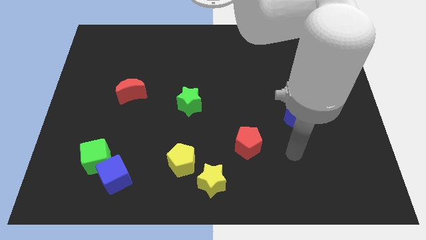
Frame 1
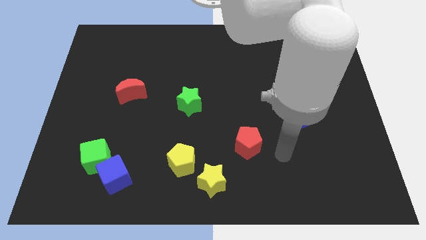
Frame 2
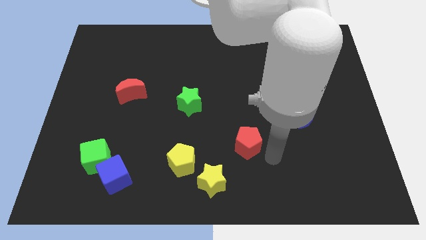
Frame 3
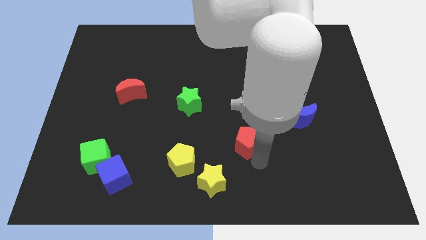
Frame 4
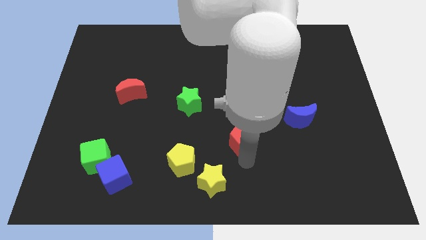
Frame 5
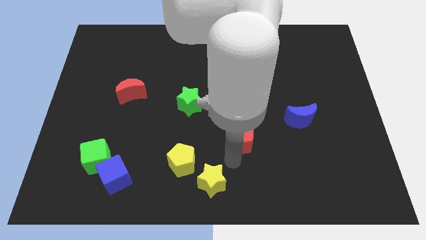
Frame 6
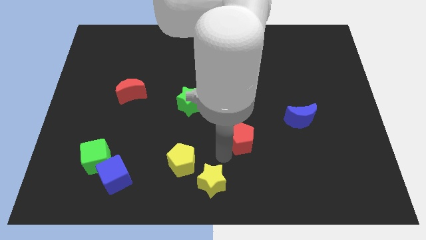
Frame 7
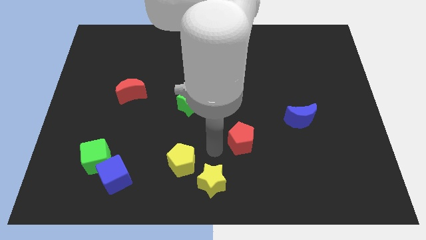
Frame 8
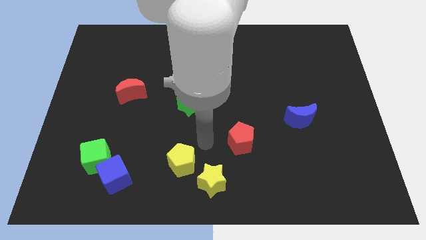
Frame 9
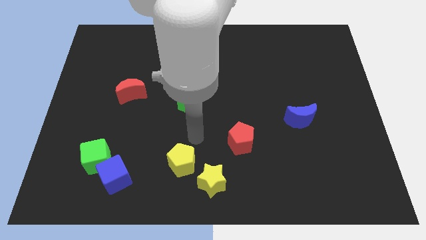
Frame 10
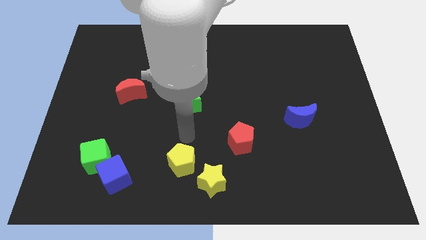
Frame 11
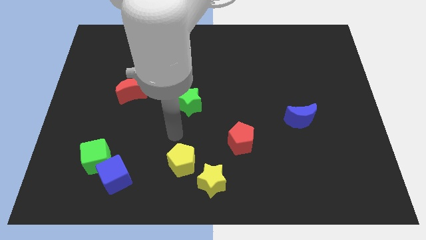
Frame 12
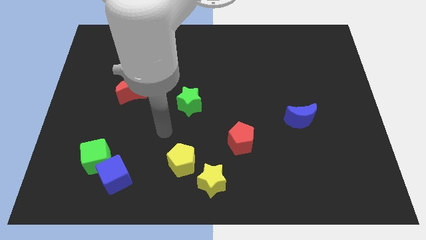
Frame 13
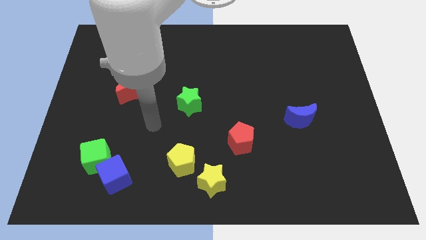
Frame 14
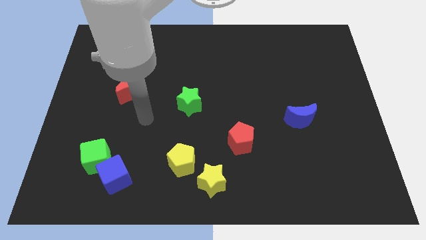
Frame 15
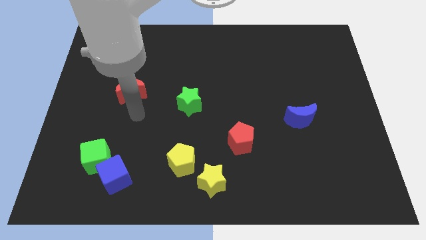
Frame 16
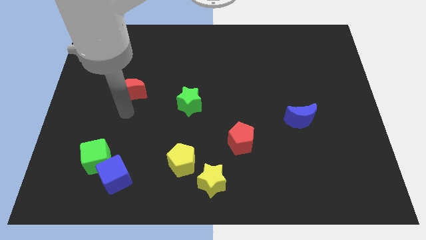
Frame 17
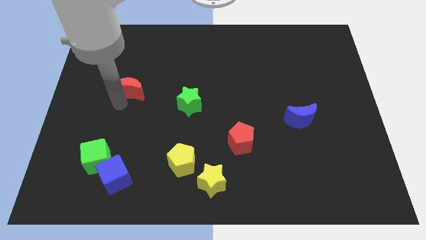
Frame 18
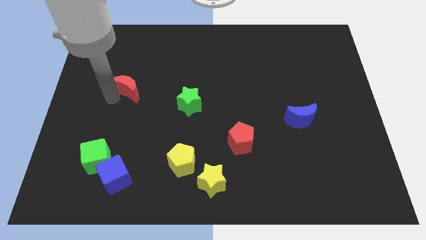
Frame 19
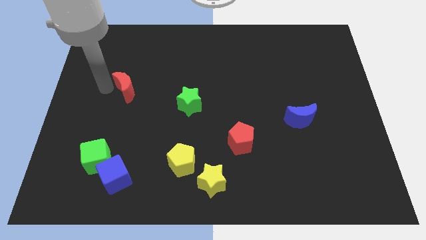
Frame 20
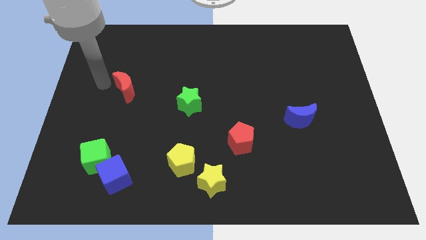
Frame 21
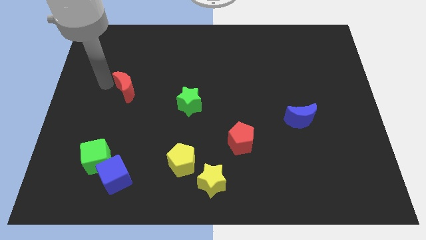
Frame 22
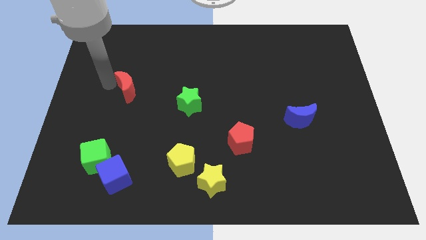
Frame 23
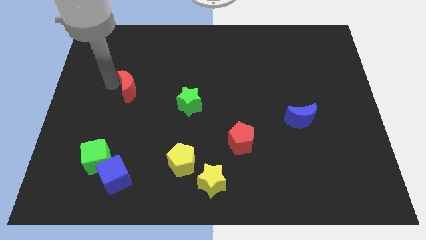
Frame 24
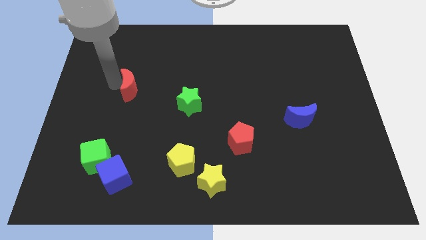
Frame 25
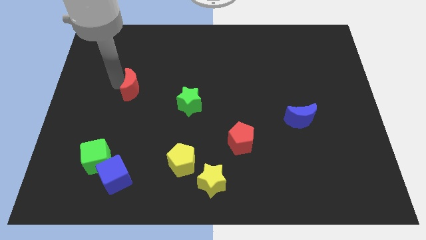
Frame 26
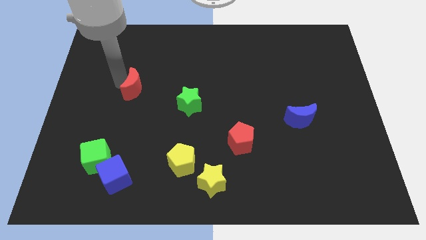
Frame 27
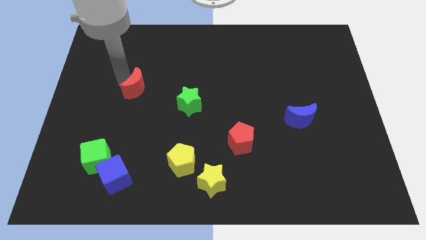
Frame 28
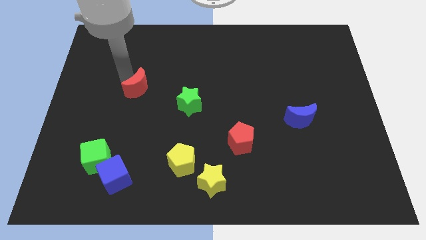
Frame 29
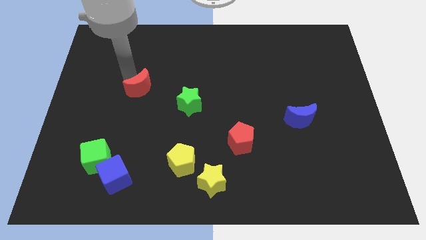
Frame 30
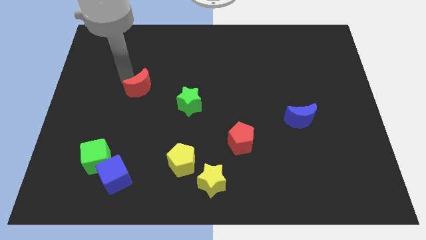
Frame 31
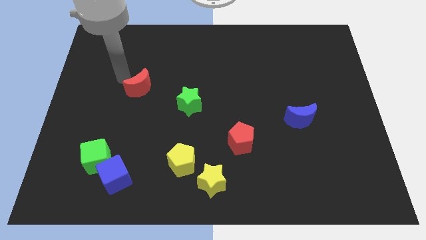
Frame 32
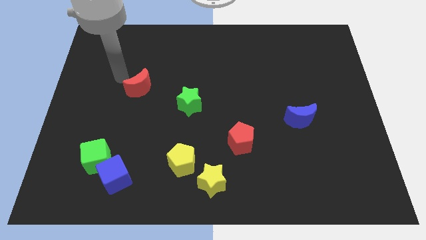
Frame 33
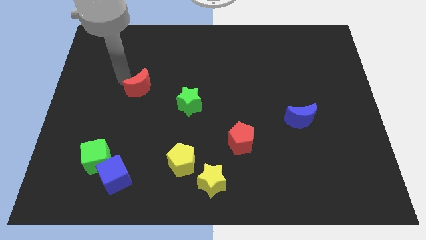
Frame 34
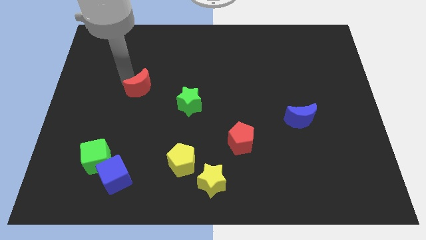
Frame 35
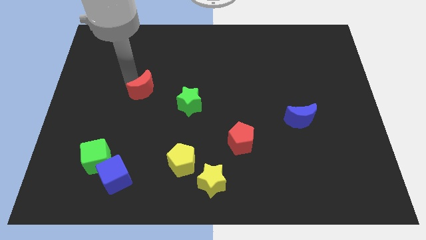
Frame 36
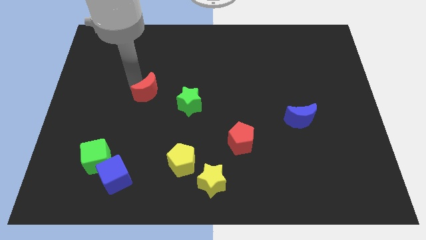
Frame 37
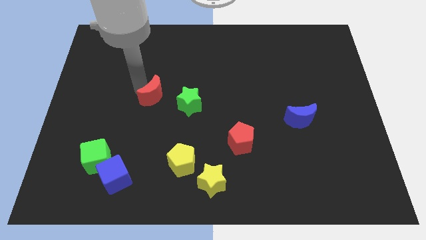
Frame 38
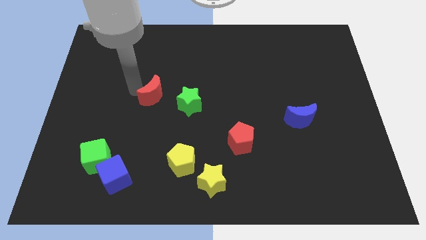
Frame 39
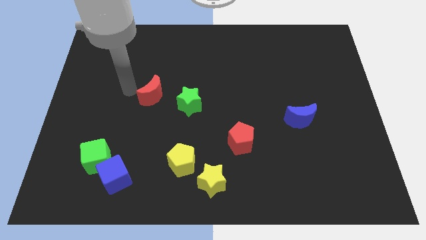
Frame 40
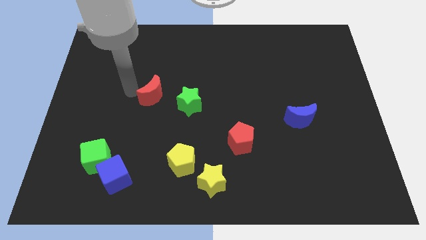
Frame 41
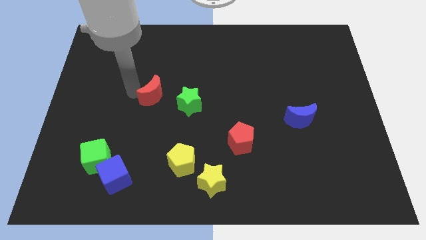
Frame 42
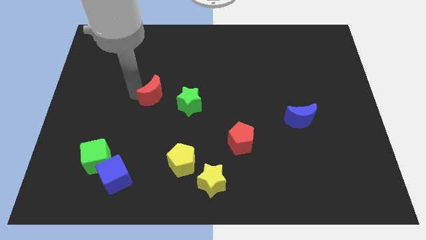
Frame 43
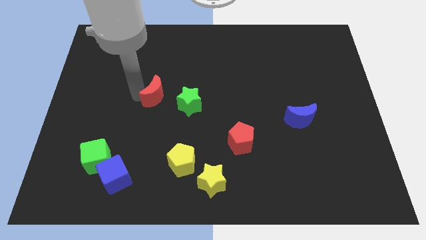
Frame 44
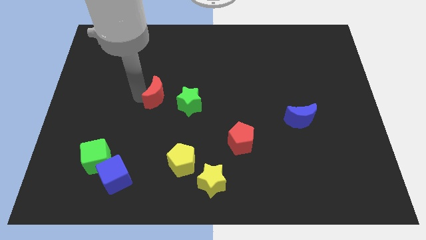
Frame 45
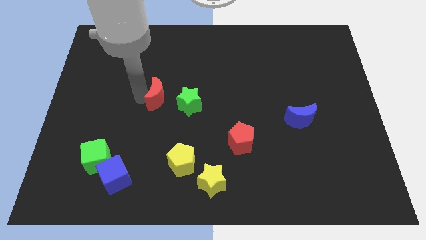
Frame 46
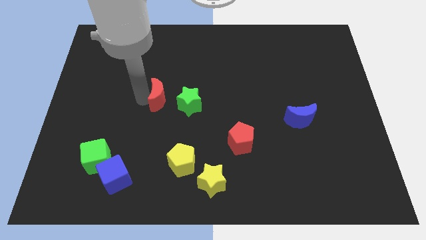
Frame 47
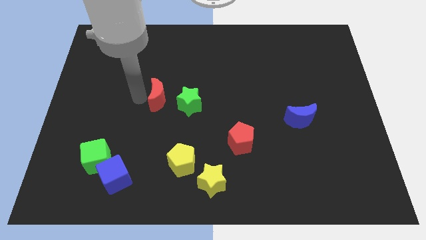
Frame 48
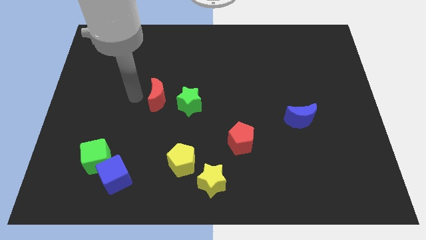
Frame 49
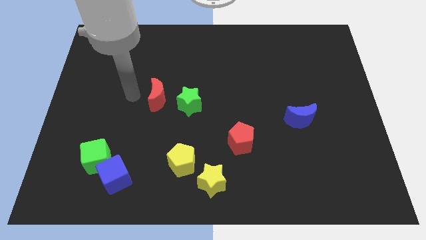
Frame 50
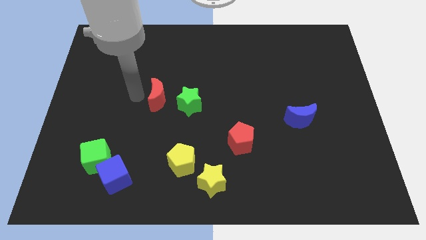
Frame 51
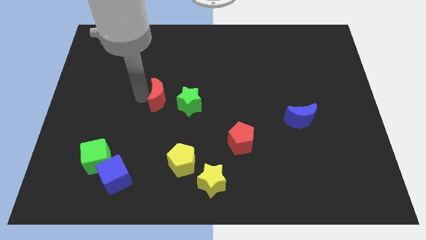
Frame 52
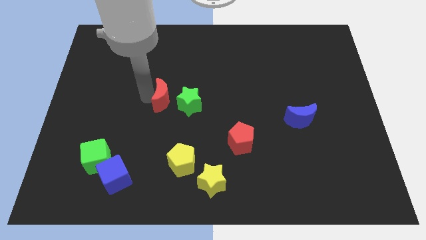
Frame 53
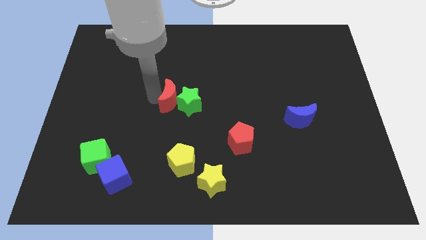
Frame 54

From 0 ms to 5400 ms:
move the red moon towards the green star

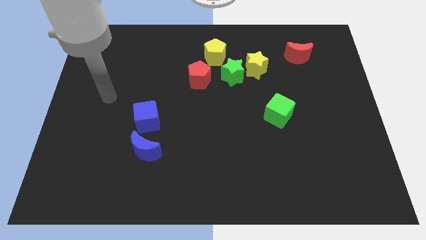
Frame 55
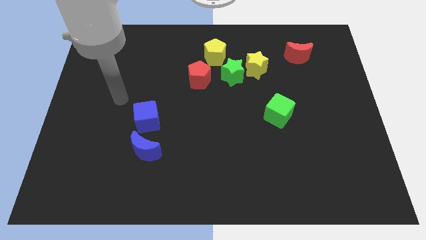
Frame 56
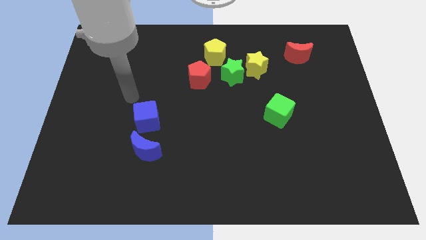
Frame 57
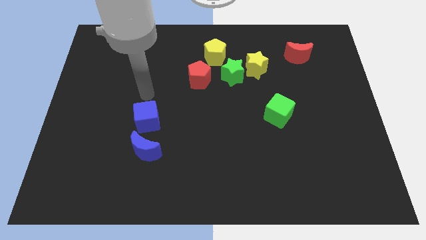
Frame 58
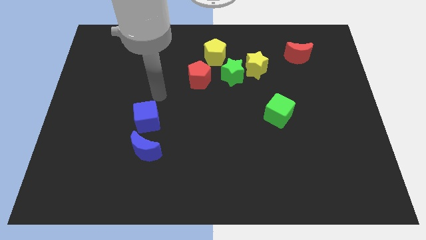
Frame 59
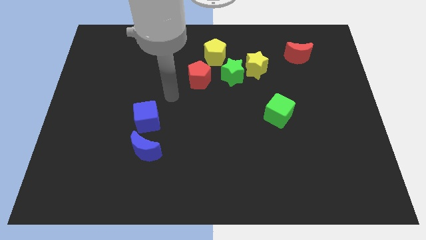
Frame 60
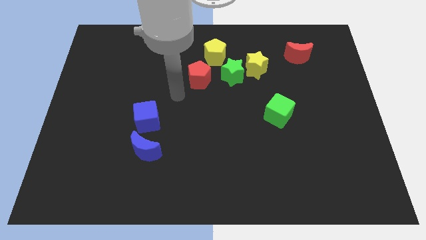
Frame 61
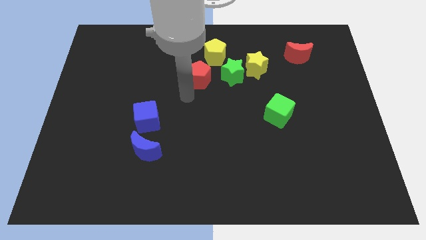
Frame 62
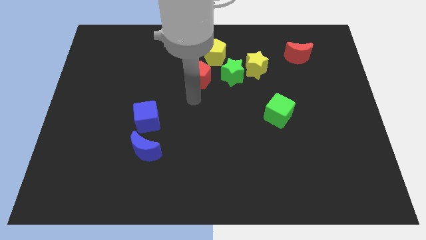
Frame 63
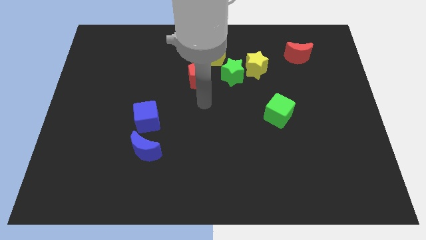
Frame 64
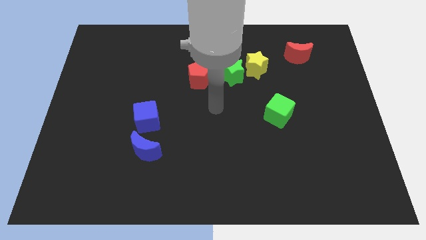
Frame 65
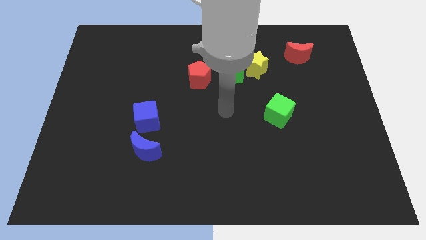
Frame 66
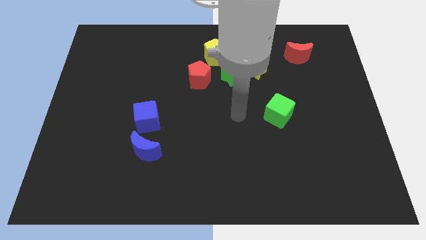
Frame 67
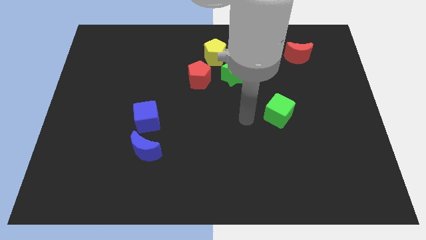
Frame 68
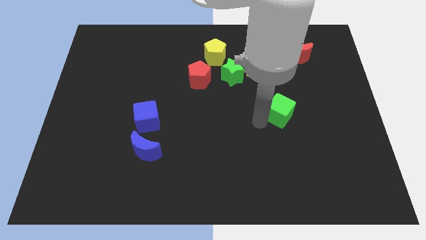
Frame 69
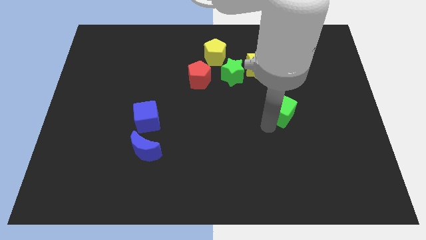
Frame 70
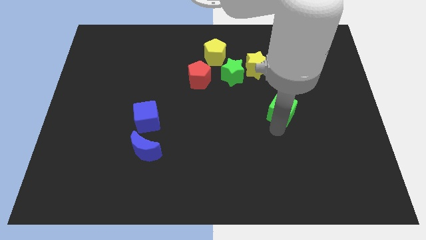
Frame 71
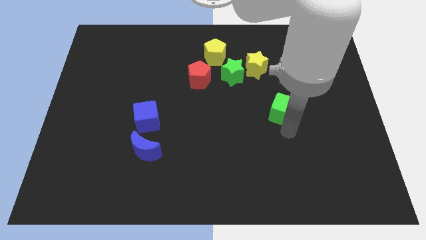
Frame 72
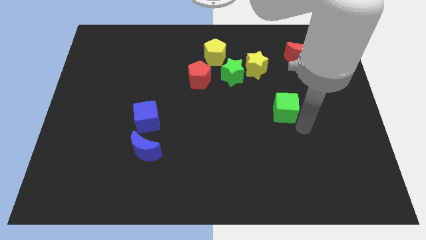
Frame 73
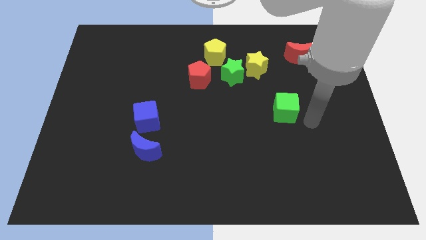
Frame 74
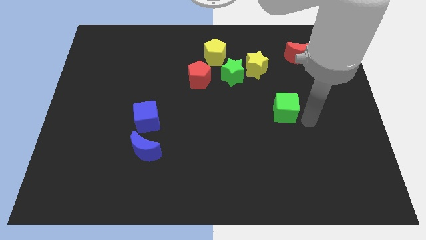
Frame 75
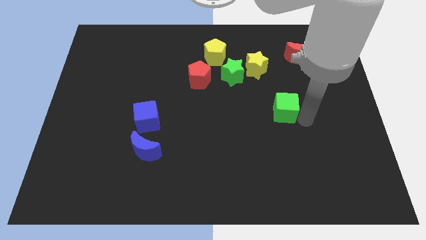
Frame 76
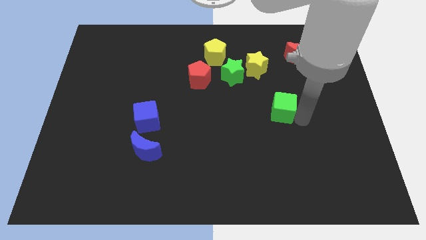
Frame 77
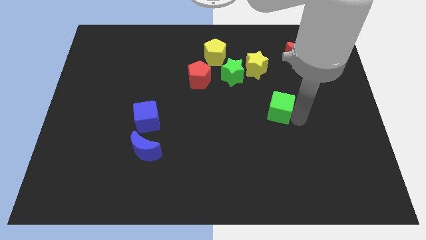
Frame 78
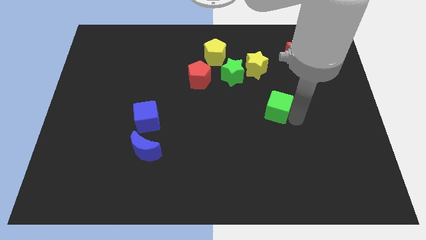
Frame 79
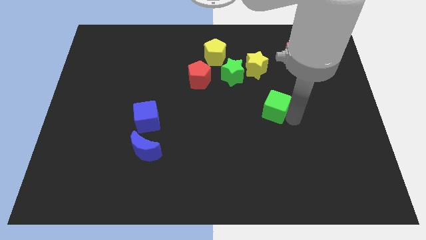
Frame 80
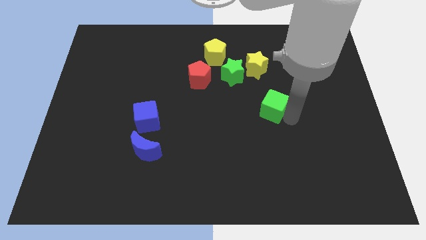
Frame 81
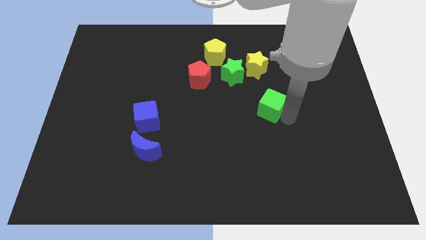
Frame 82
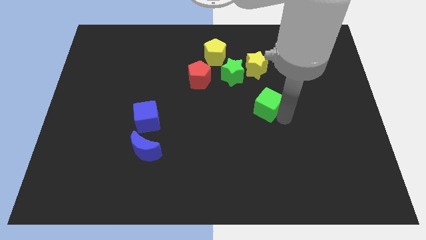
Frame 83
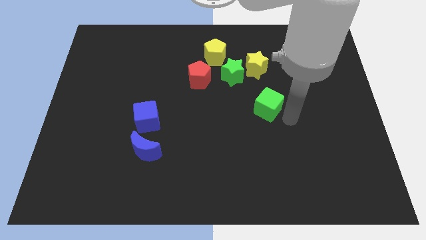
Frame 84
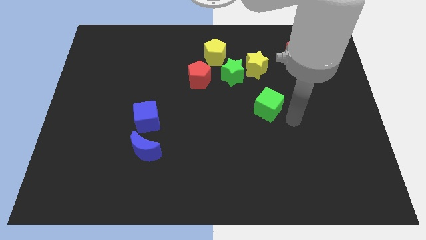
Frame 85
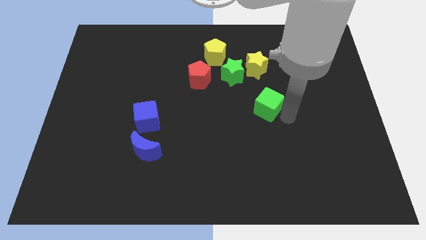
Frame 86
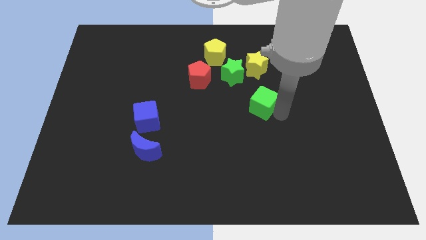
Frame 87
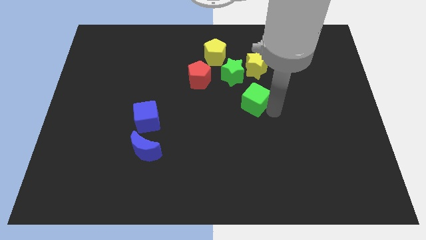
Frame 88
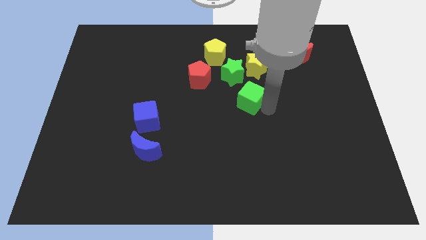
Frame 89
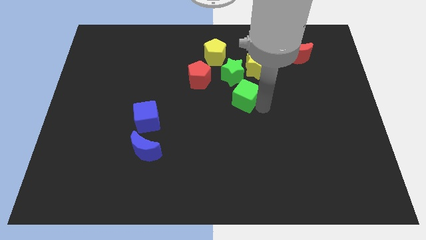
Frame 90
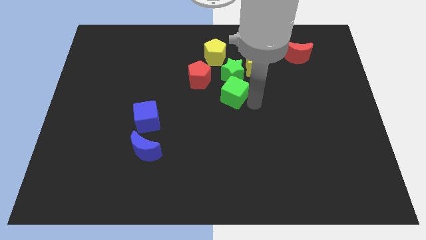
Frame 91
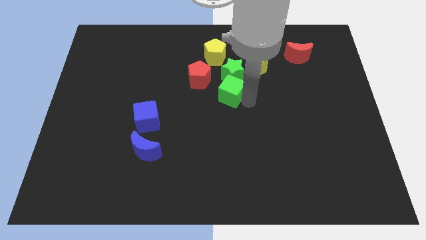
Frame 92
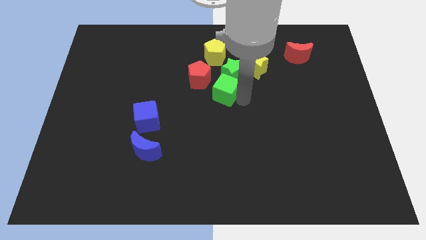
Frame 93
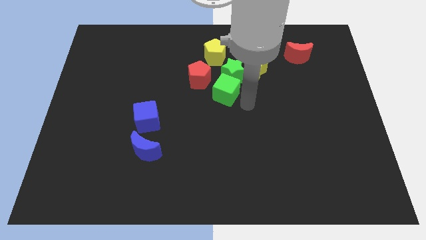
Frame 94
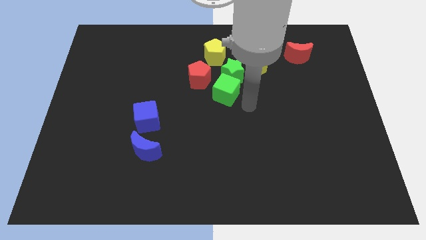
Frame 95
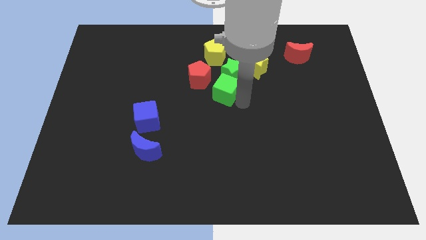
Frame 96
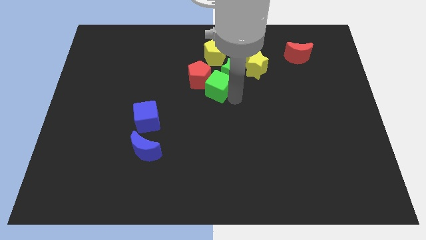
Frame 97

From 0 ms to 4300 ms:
move the green cube next to the red pentagon
